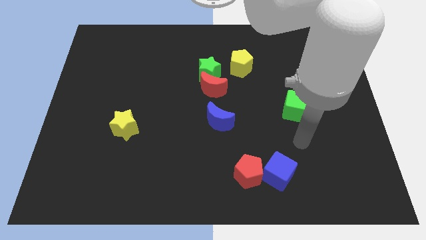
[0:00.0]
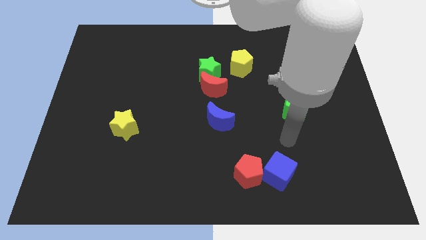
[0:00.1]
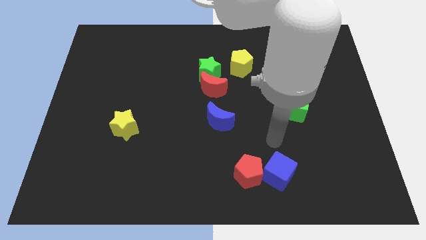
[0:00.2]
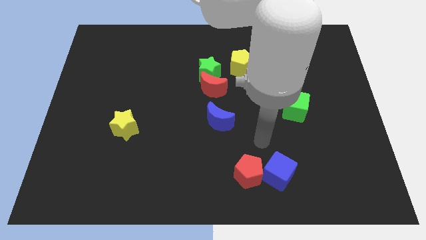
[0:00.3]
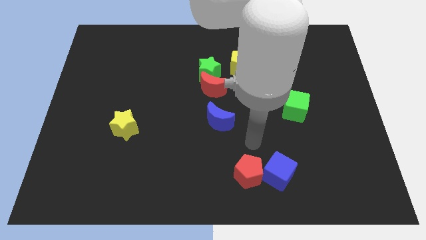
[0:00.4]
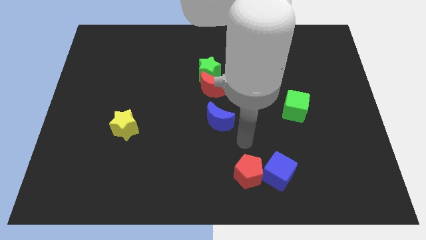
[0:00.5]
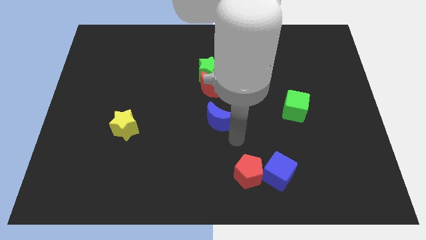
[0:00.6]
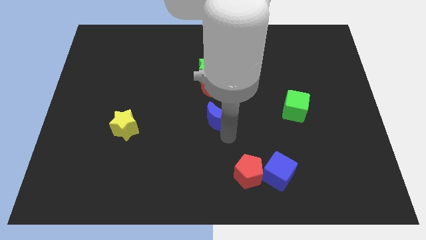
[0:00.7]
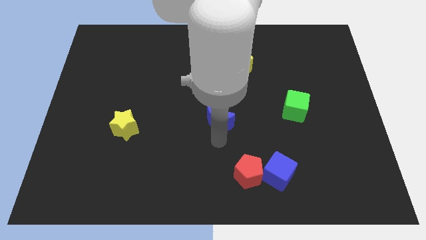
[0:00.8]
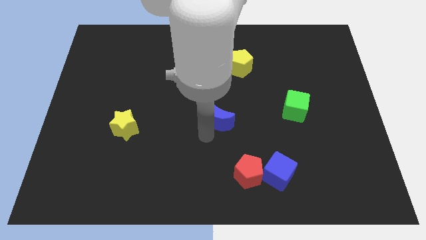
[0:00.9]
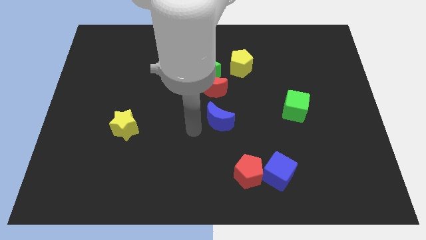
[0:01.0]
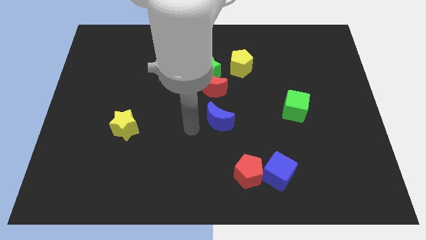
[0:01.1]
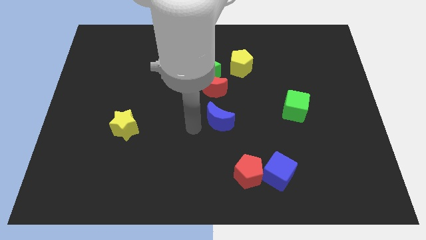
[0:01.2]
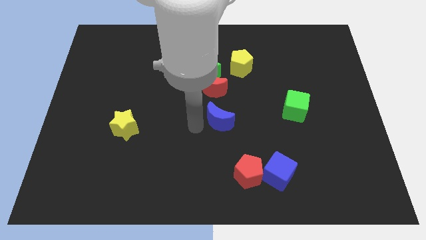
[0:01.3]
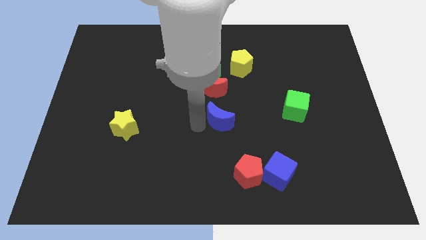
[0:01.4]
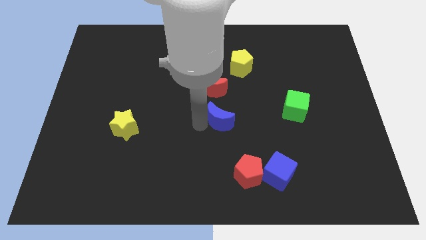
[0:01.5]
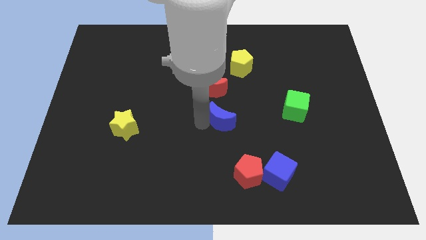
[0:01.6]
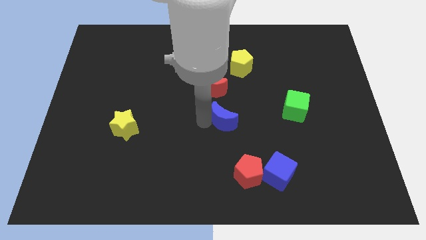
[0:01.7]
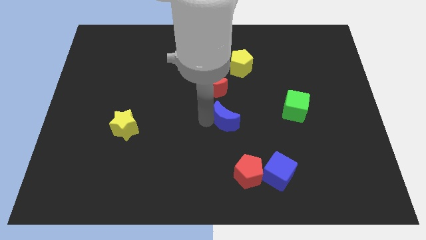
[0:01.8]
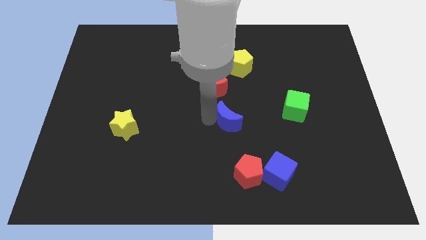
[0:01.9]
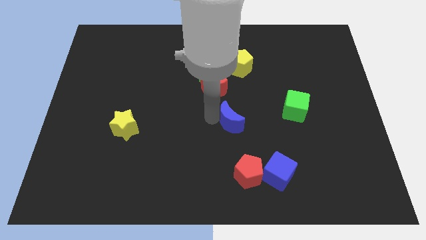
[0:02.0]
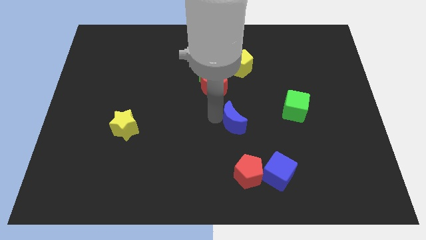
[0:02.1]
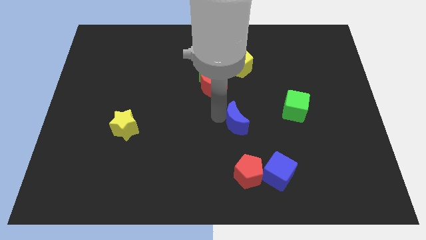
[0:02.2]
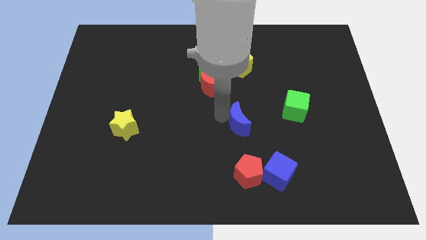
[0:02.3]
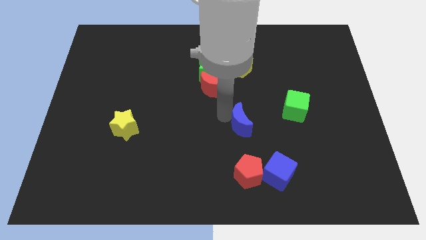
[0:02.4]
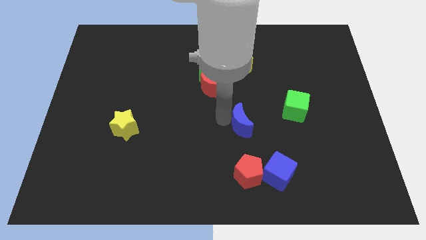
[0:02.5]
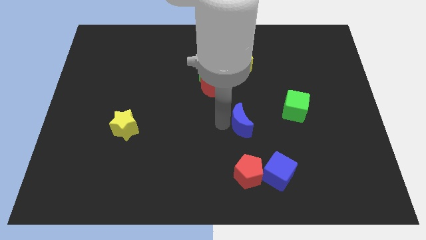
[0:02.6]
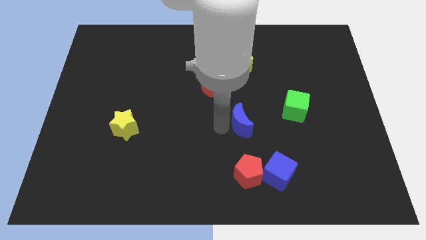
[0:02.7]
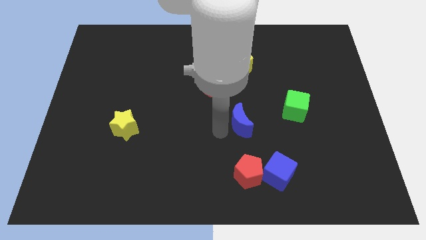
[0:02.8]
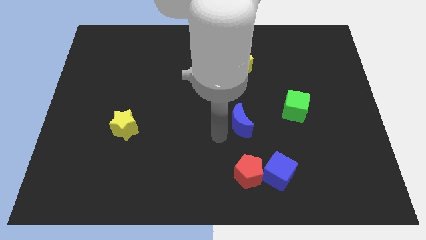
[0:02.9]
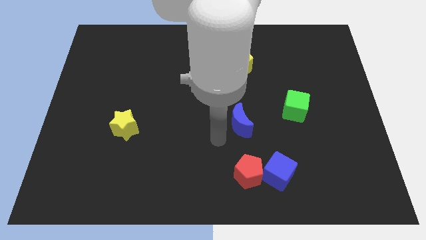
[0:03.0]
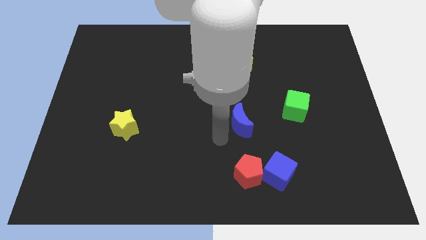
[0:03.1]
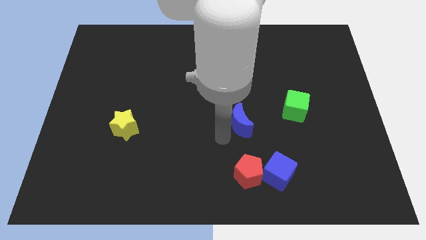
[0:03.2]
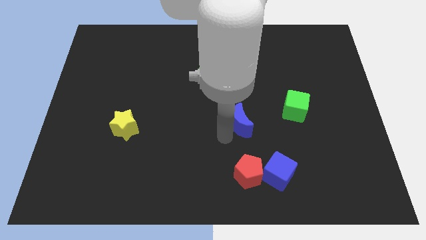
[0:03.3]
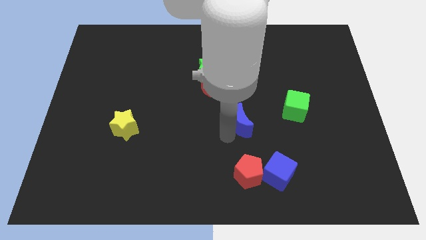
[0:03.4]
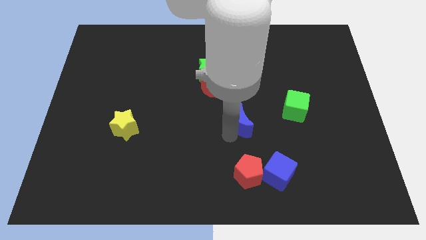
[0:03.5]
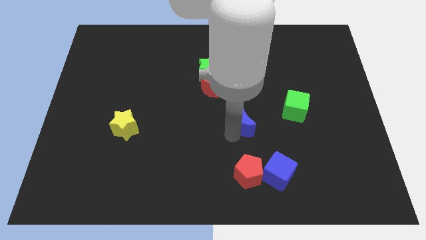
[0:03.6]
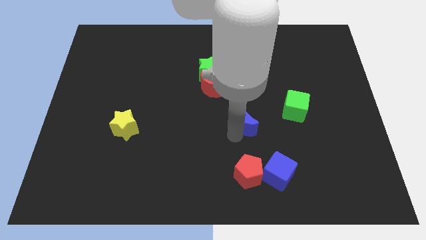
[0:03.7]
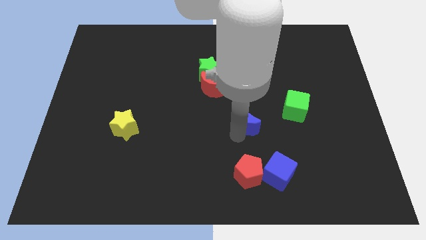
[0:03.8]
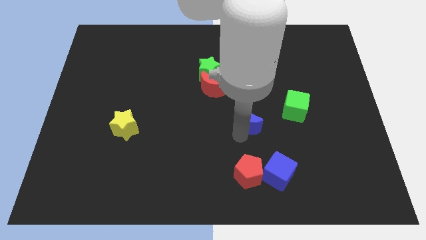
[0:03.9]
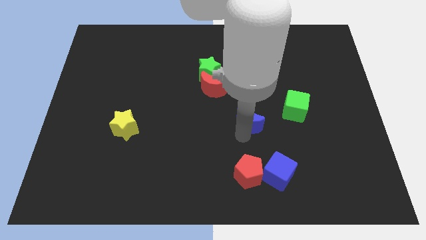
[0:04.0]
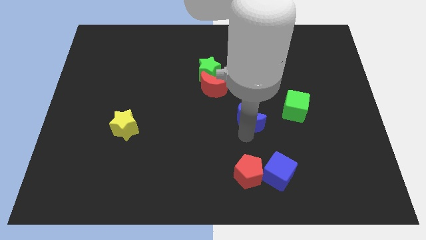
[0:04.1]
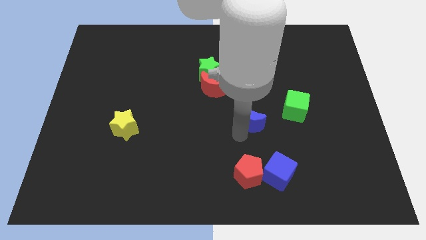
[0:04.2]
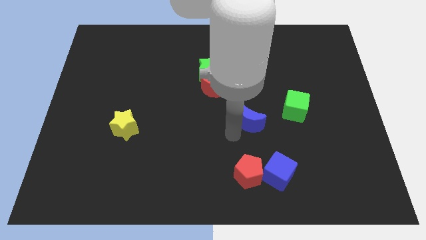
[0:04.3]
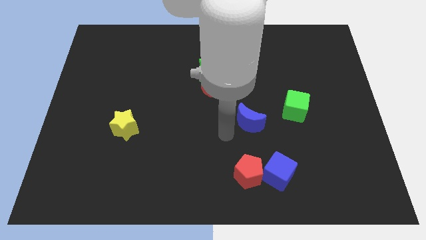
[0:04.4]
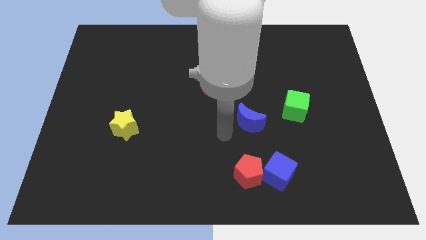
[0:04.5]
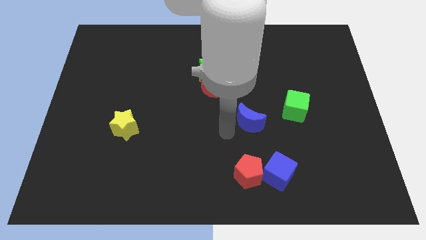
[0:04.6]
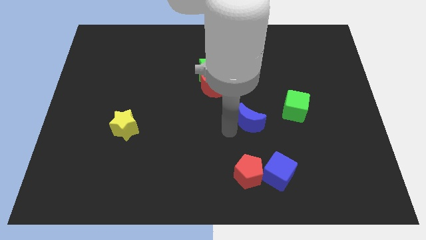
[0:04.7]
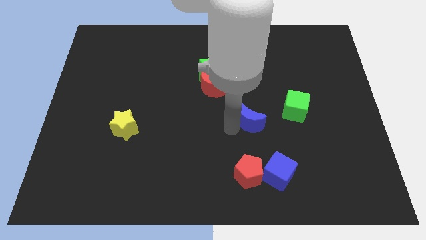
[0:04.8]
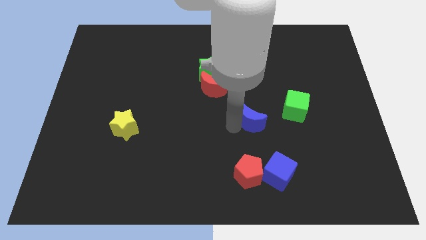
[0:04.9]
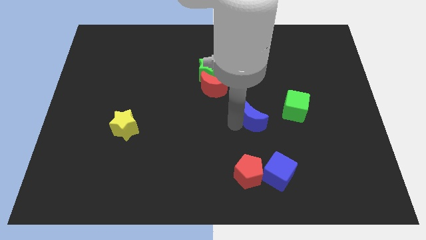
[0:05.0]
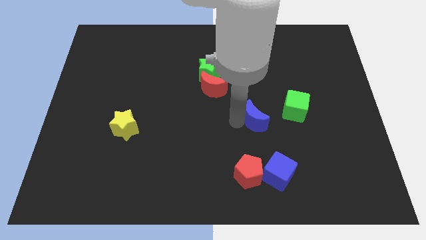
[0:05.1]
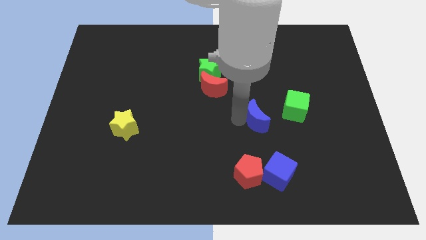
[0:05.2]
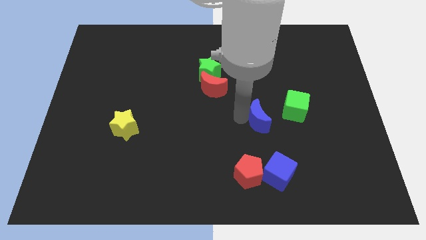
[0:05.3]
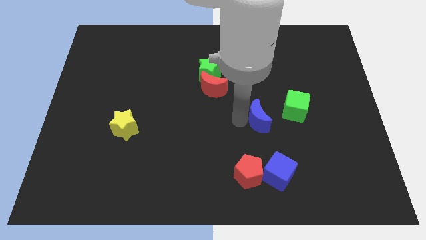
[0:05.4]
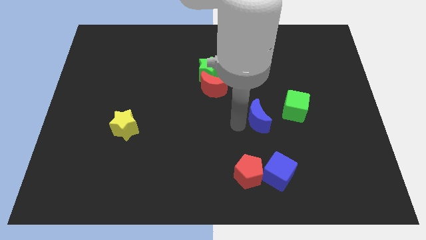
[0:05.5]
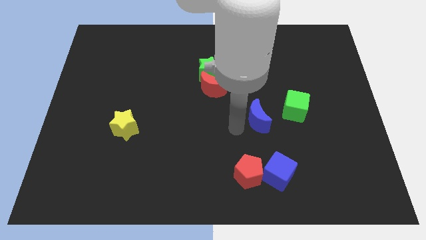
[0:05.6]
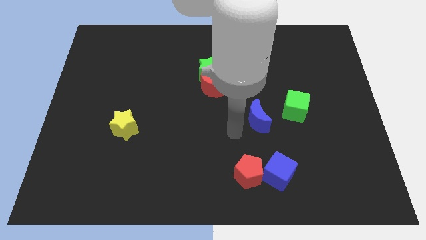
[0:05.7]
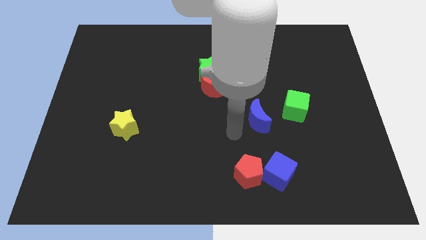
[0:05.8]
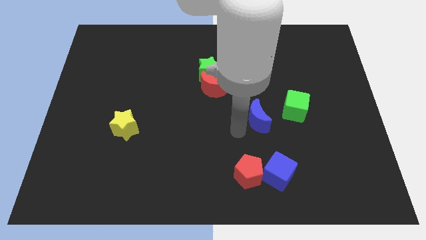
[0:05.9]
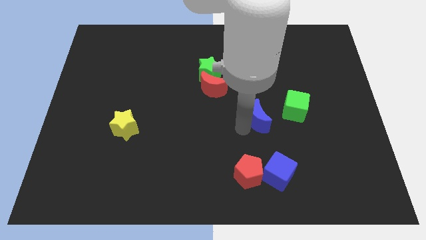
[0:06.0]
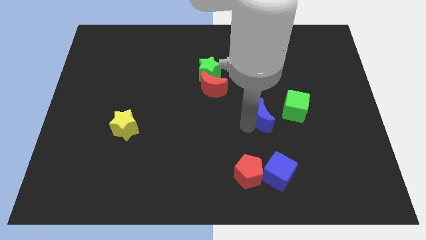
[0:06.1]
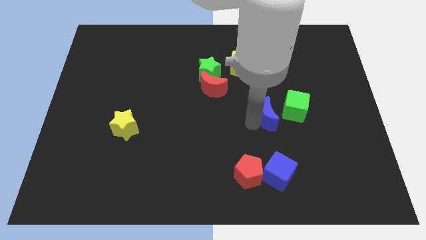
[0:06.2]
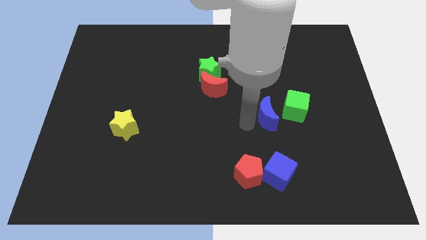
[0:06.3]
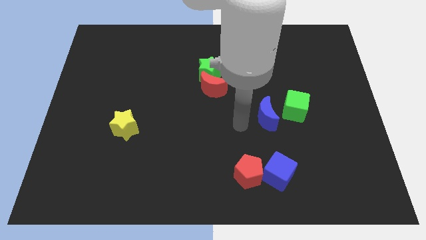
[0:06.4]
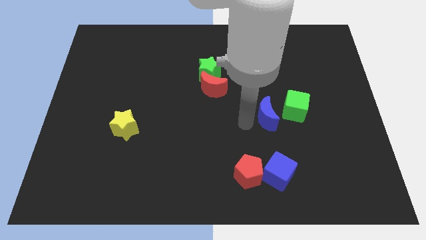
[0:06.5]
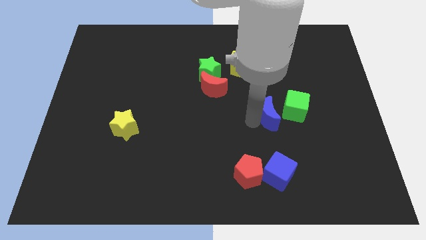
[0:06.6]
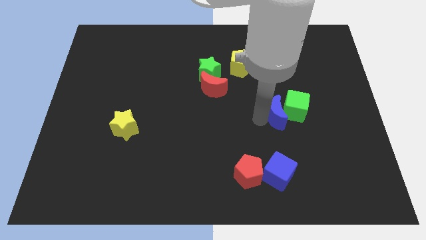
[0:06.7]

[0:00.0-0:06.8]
slide the blue moon next to the green cube
